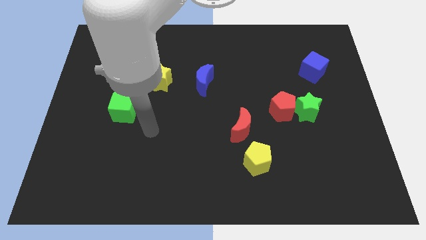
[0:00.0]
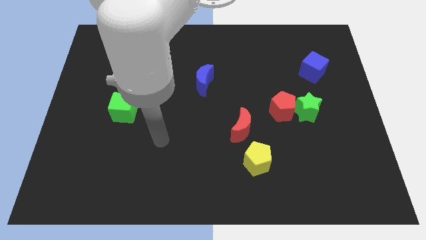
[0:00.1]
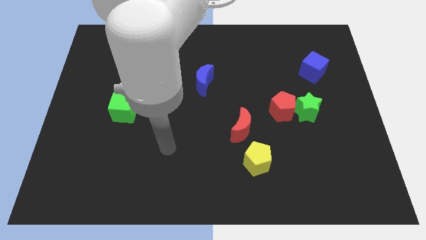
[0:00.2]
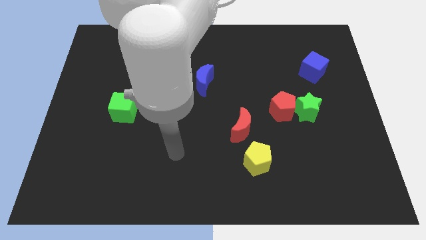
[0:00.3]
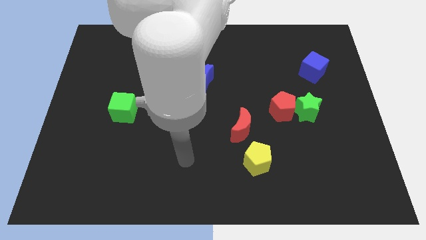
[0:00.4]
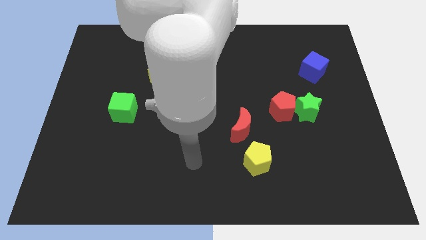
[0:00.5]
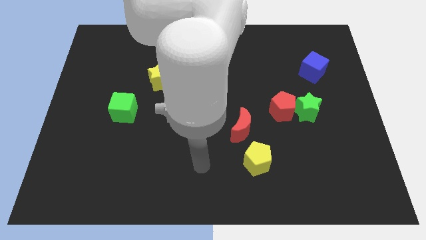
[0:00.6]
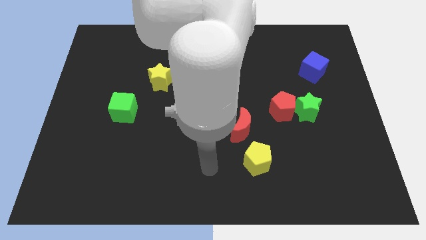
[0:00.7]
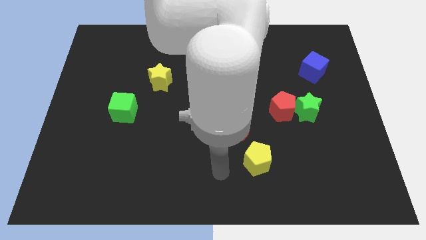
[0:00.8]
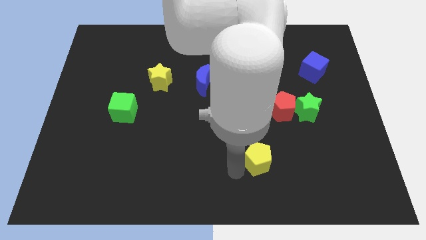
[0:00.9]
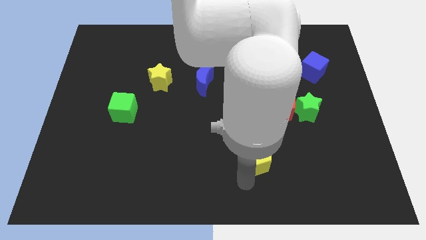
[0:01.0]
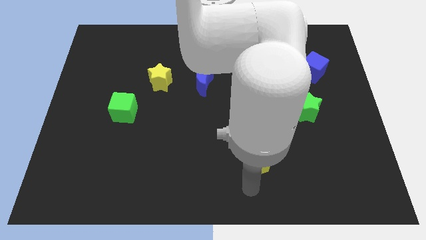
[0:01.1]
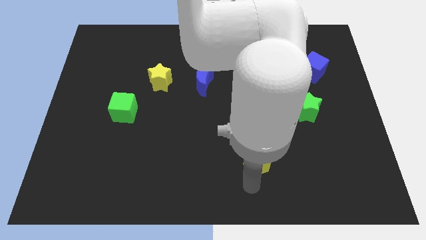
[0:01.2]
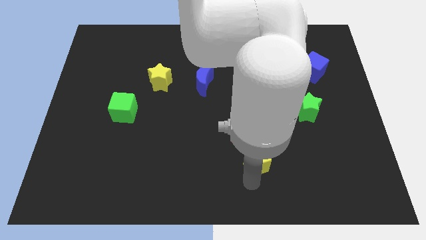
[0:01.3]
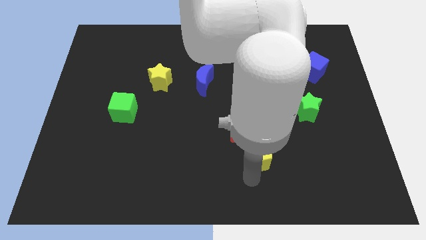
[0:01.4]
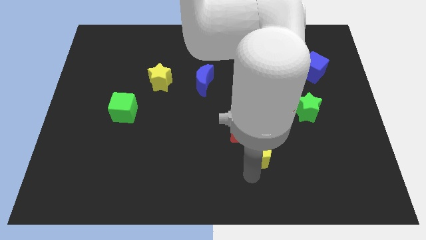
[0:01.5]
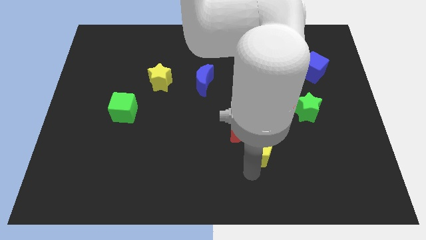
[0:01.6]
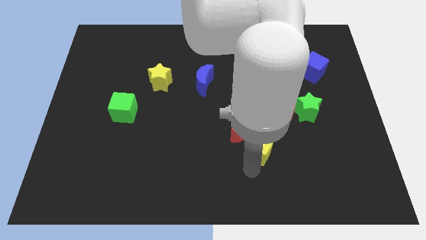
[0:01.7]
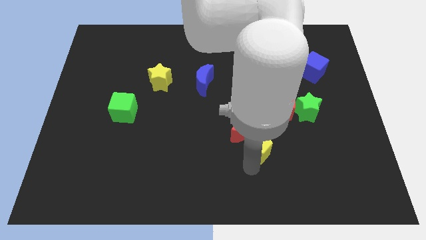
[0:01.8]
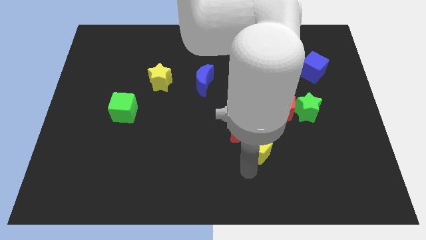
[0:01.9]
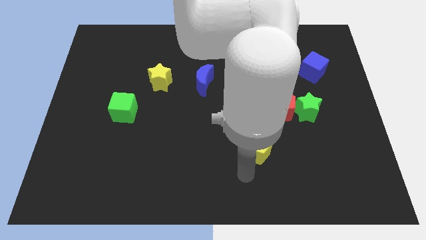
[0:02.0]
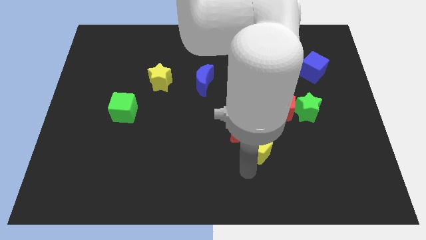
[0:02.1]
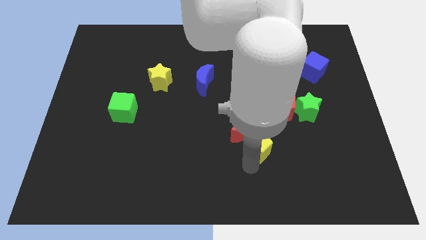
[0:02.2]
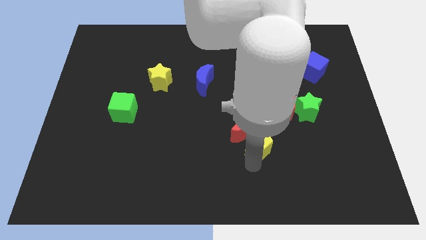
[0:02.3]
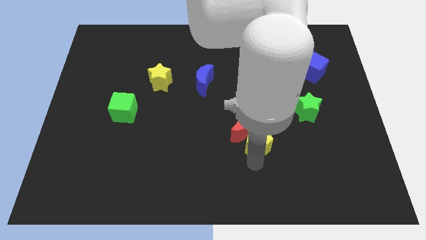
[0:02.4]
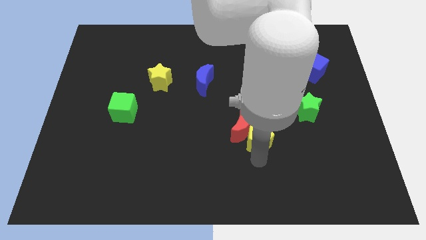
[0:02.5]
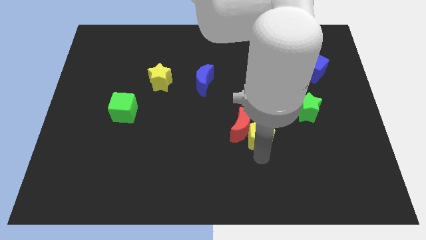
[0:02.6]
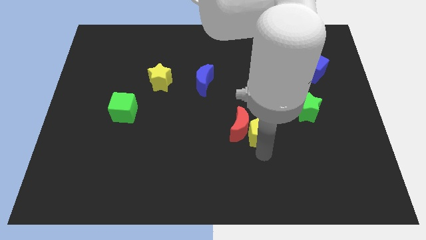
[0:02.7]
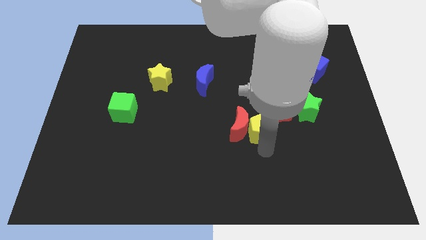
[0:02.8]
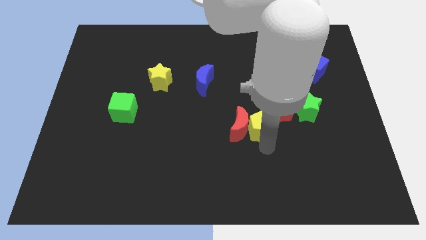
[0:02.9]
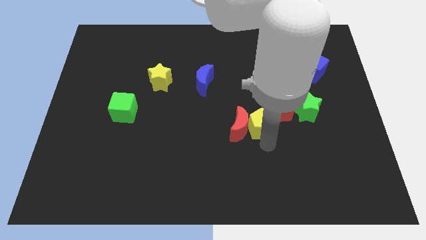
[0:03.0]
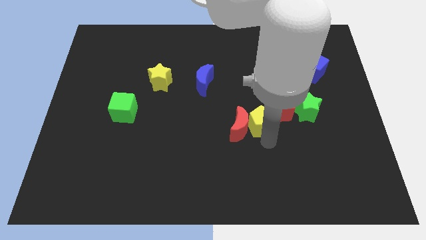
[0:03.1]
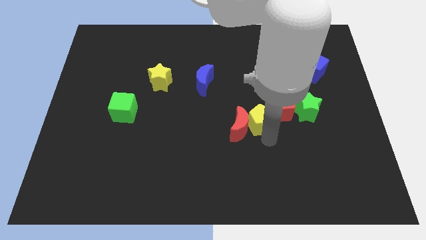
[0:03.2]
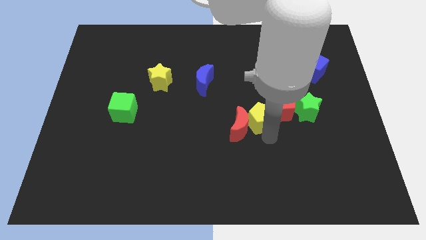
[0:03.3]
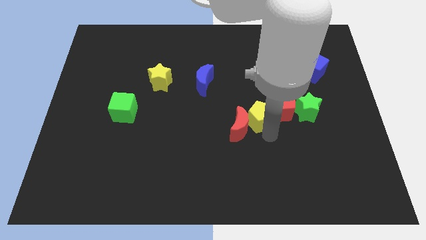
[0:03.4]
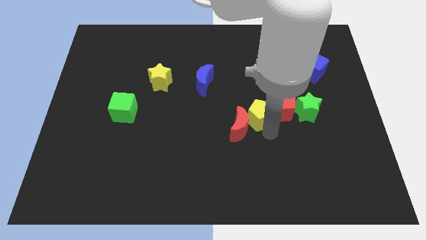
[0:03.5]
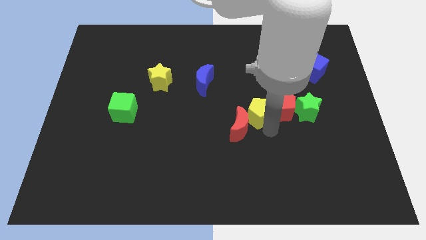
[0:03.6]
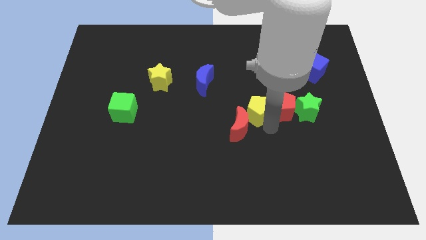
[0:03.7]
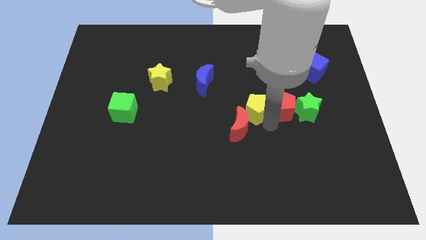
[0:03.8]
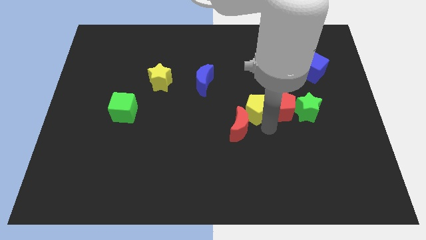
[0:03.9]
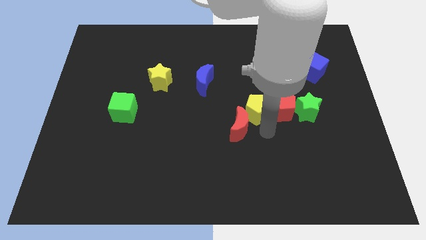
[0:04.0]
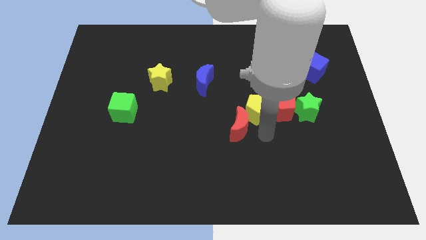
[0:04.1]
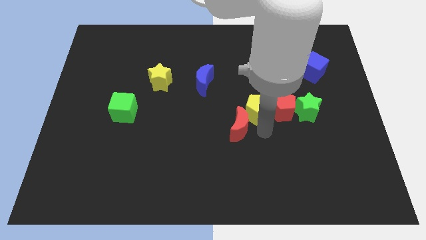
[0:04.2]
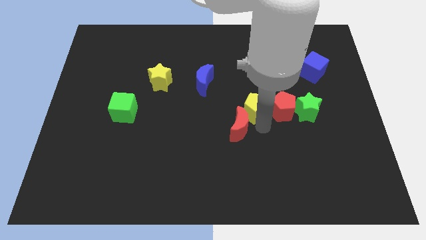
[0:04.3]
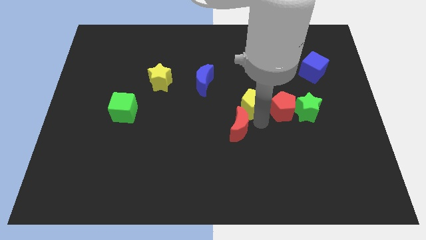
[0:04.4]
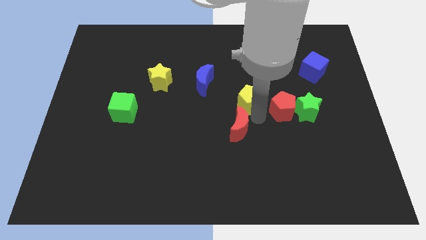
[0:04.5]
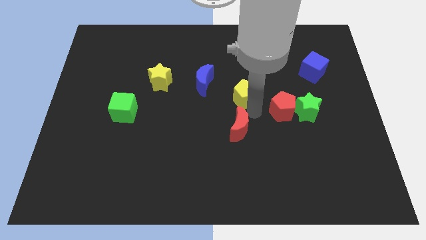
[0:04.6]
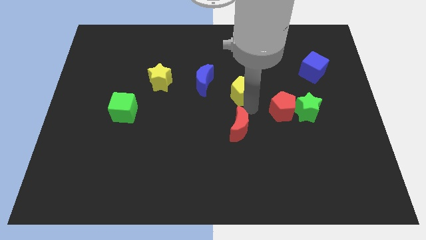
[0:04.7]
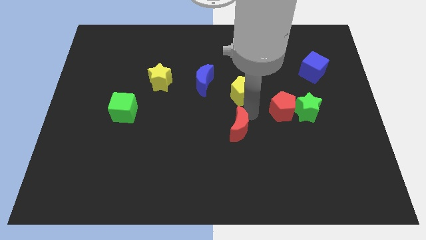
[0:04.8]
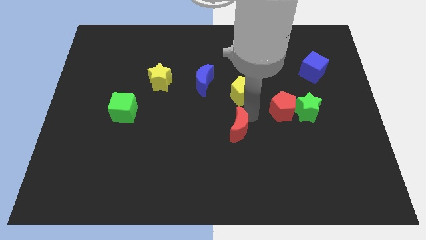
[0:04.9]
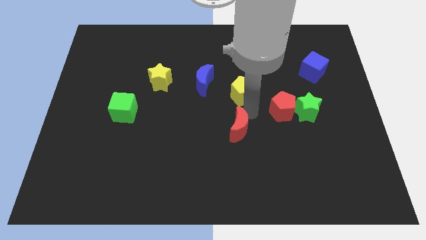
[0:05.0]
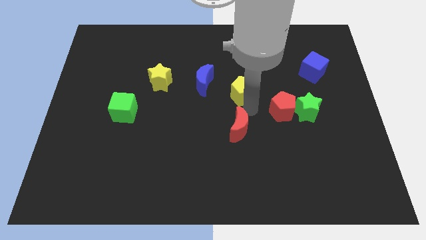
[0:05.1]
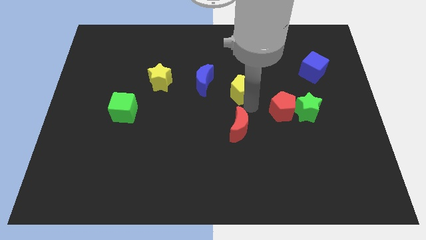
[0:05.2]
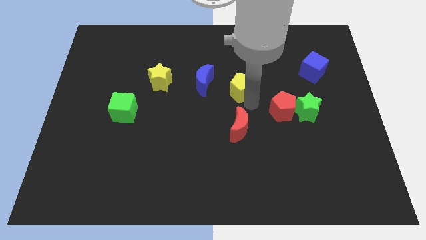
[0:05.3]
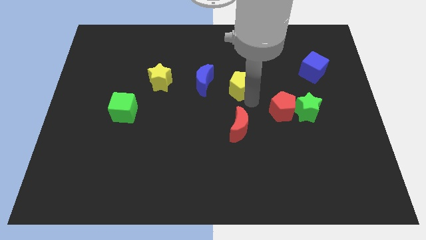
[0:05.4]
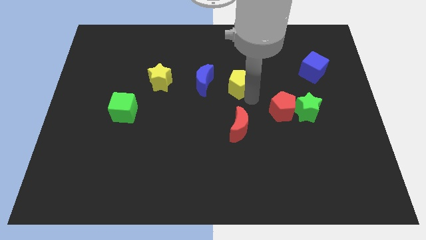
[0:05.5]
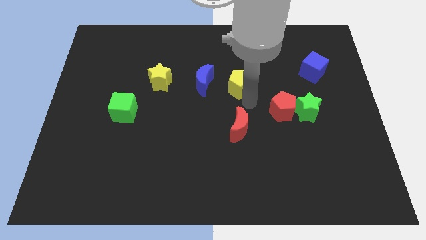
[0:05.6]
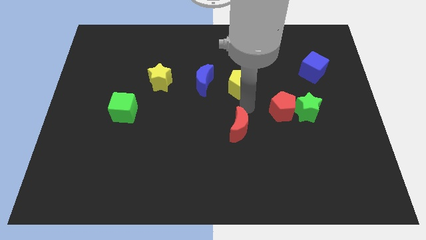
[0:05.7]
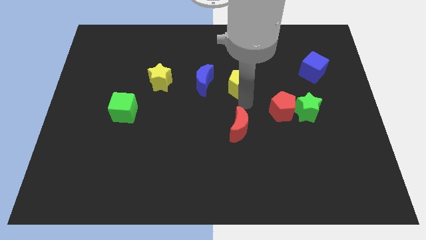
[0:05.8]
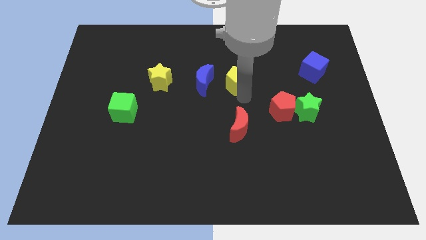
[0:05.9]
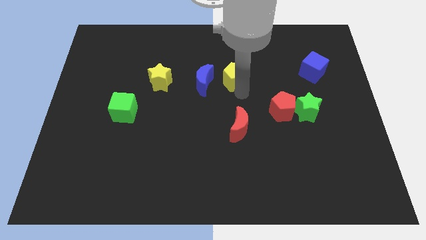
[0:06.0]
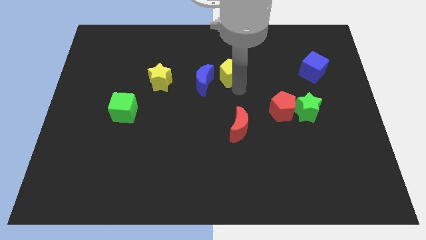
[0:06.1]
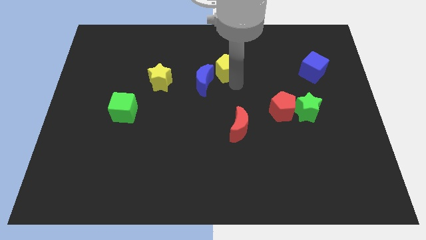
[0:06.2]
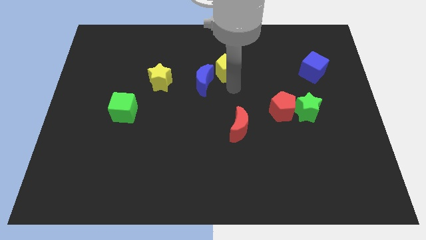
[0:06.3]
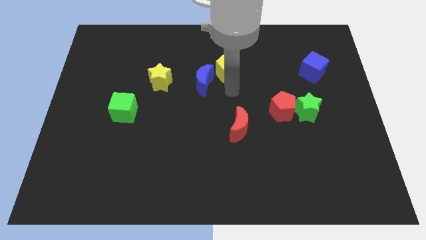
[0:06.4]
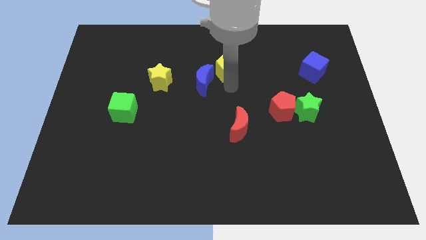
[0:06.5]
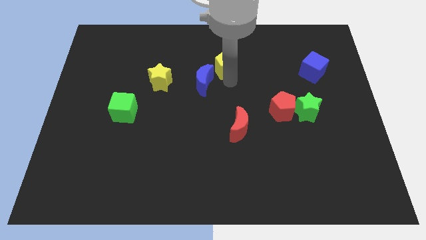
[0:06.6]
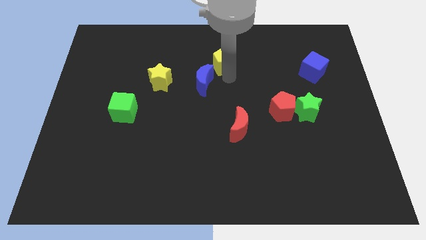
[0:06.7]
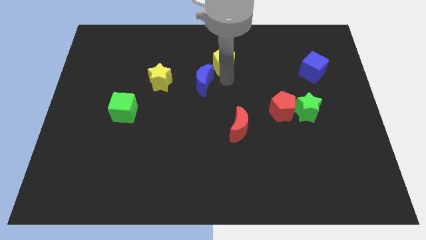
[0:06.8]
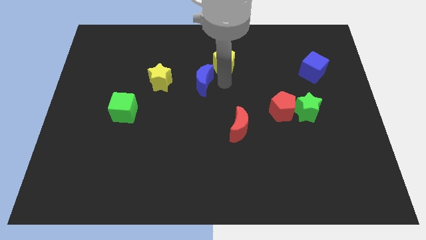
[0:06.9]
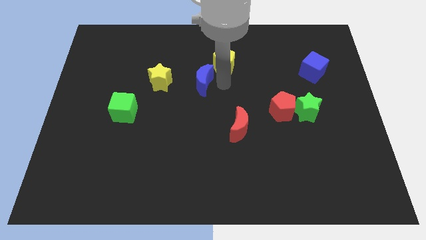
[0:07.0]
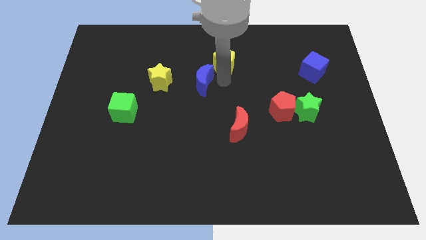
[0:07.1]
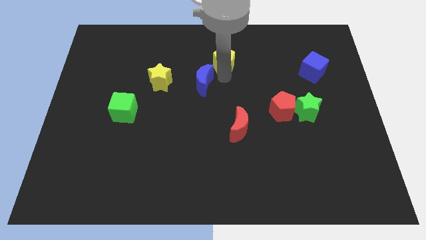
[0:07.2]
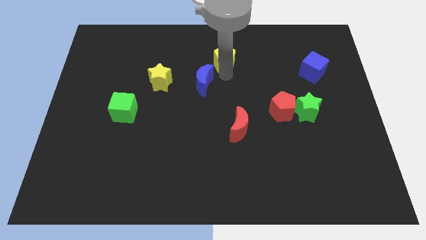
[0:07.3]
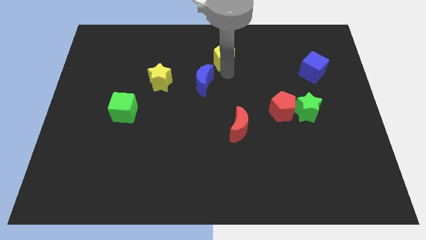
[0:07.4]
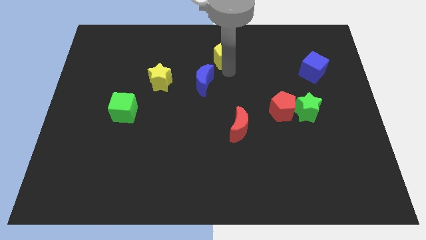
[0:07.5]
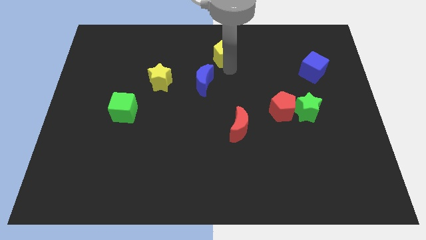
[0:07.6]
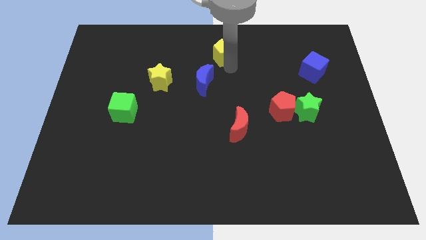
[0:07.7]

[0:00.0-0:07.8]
push the yellow pentagon to the top side
